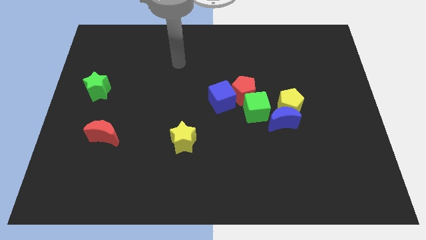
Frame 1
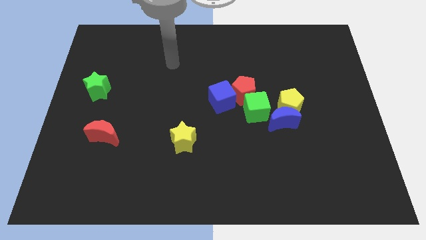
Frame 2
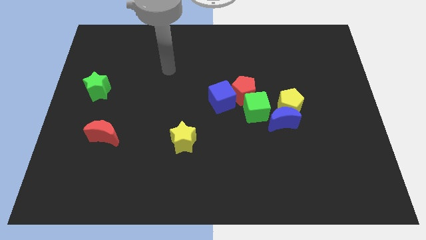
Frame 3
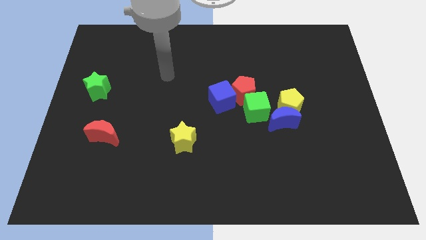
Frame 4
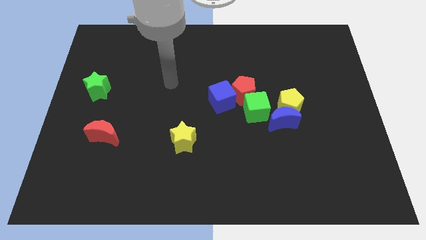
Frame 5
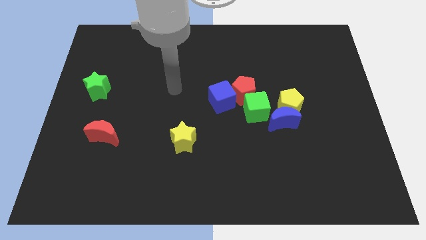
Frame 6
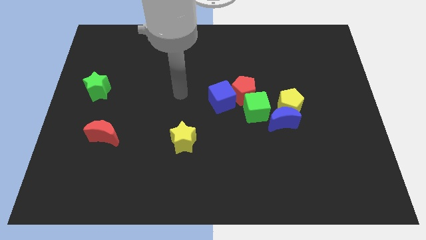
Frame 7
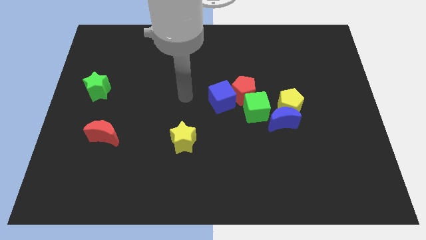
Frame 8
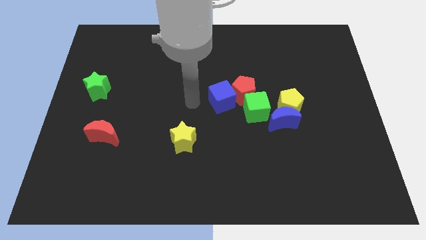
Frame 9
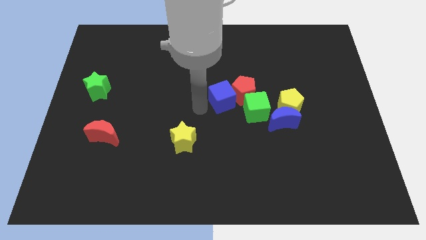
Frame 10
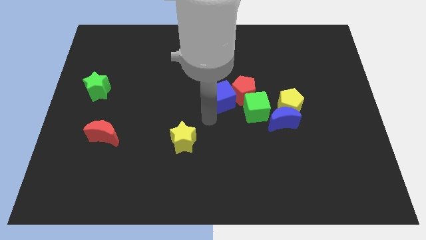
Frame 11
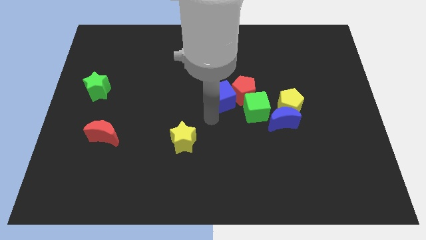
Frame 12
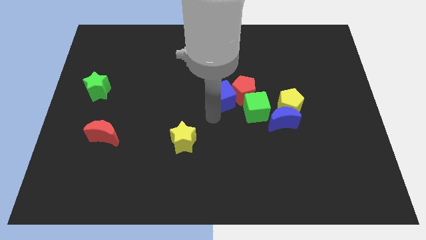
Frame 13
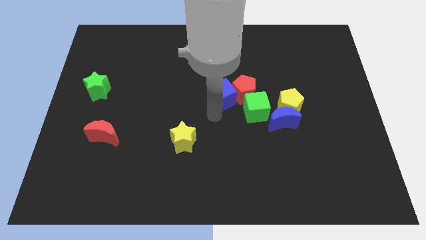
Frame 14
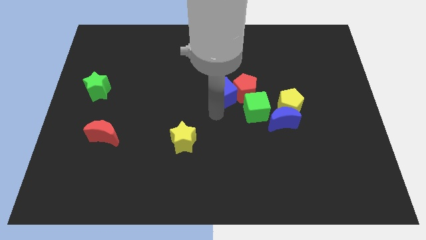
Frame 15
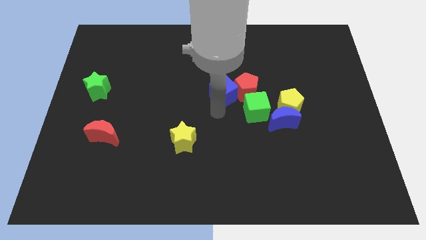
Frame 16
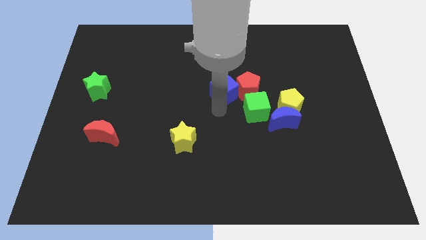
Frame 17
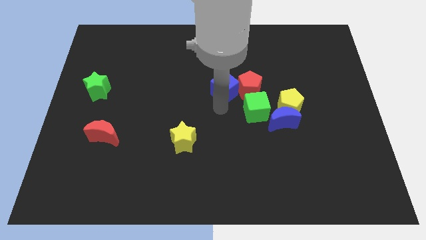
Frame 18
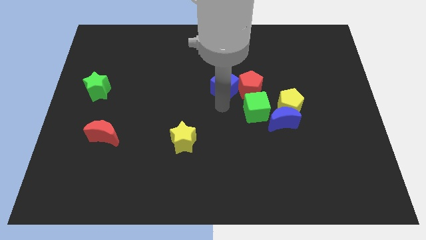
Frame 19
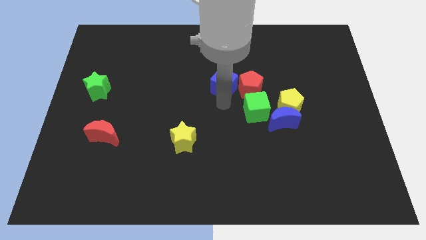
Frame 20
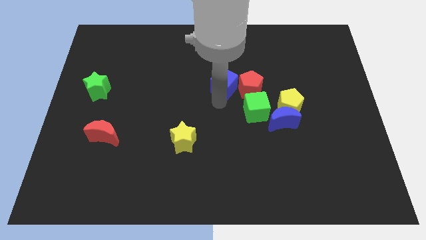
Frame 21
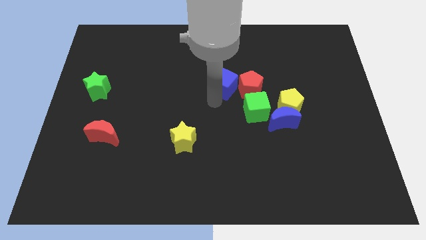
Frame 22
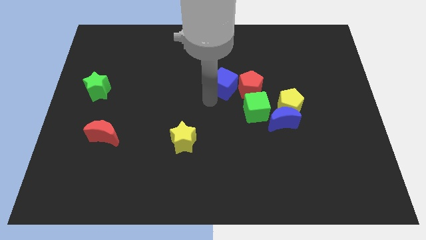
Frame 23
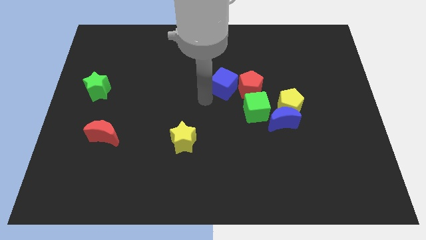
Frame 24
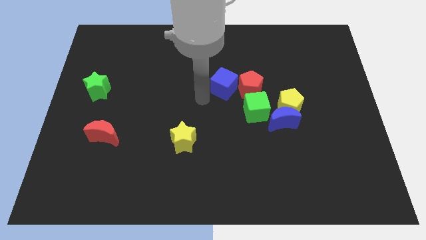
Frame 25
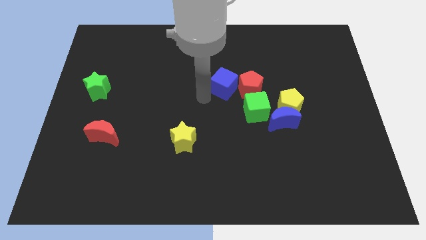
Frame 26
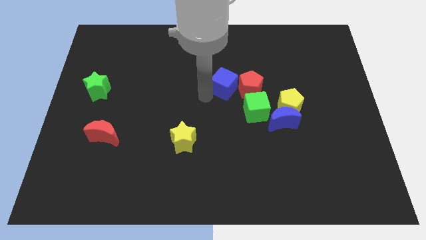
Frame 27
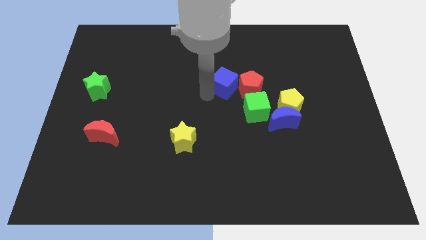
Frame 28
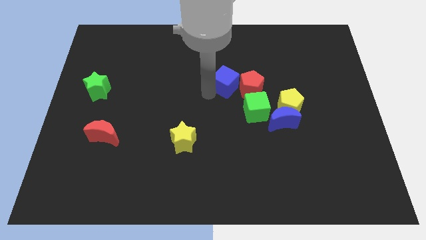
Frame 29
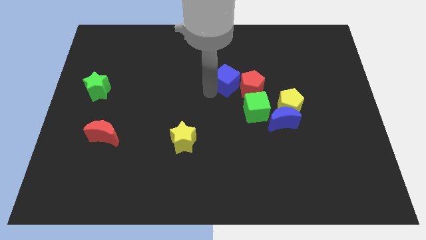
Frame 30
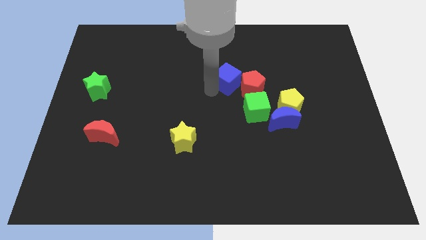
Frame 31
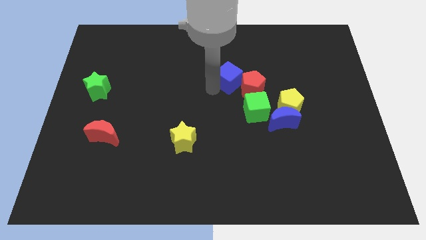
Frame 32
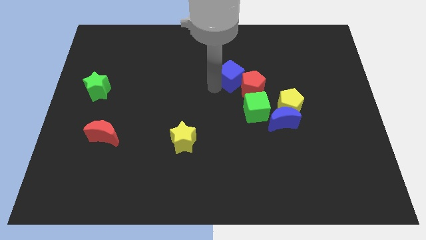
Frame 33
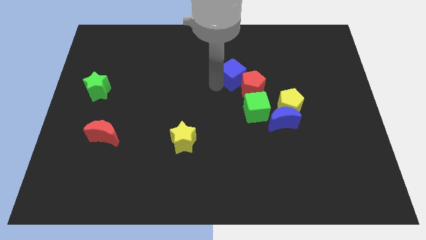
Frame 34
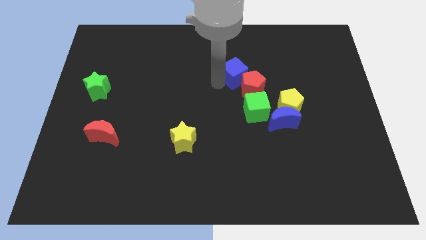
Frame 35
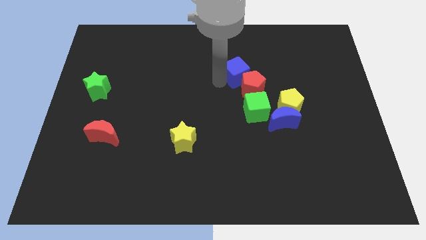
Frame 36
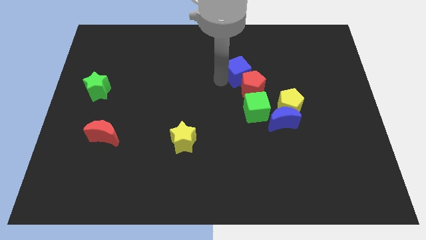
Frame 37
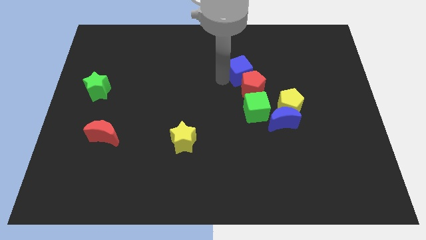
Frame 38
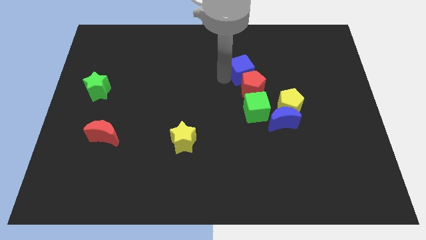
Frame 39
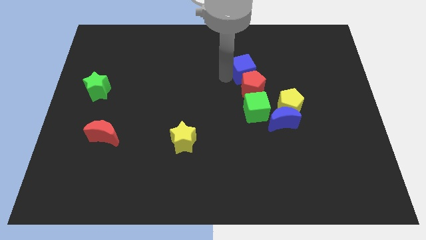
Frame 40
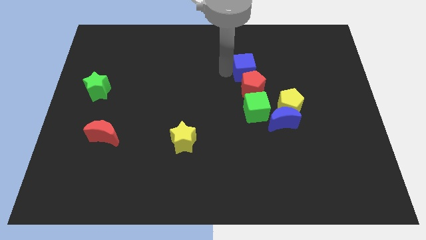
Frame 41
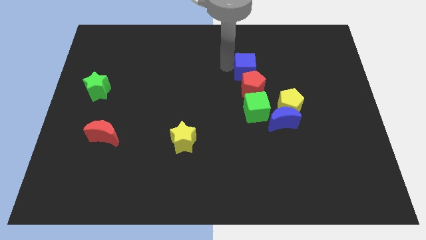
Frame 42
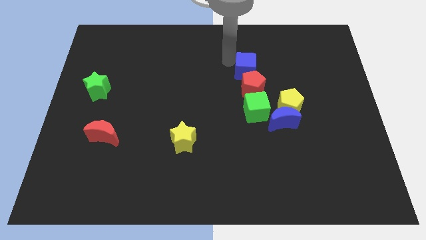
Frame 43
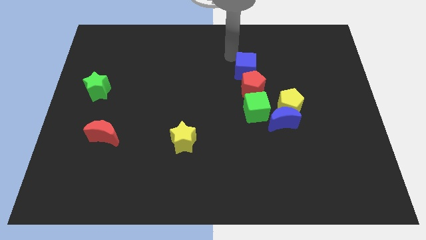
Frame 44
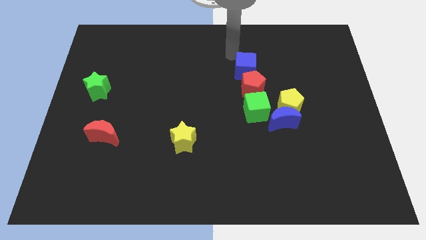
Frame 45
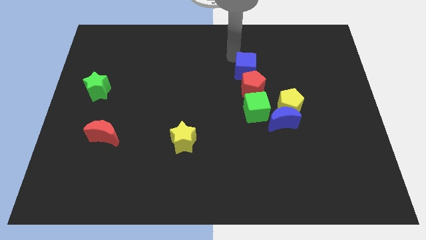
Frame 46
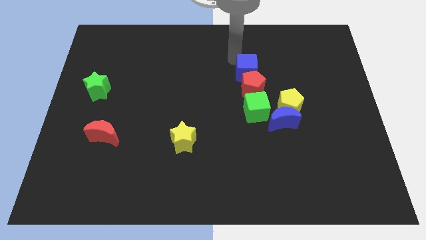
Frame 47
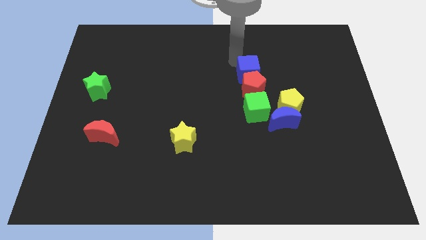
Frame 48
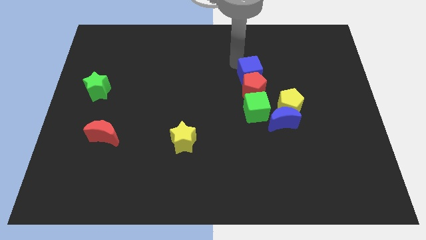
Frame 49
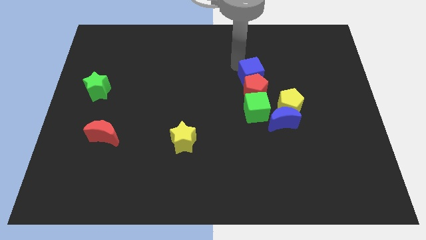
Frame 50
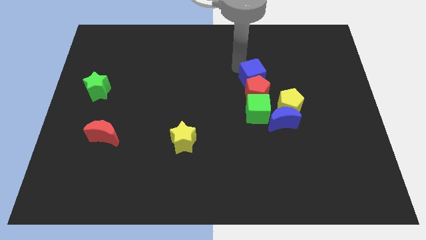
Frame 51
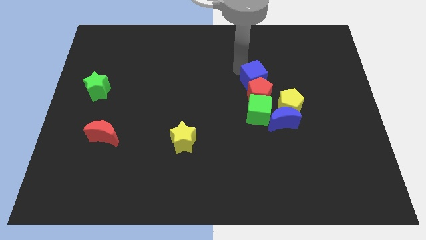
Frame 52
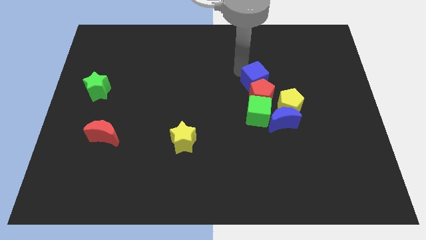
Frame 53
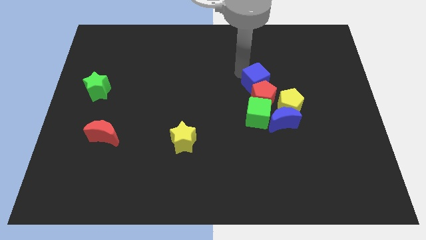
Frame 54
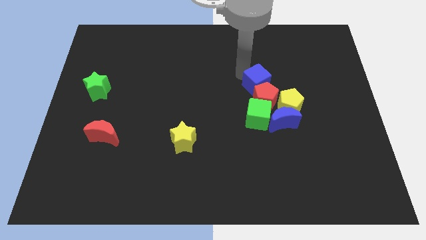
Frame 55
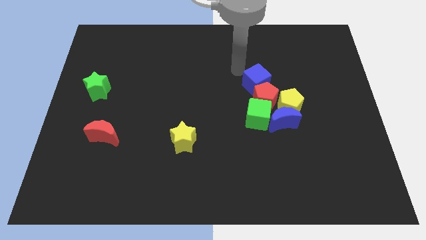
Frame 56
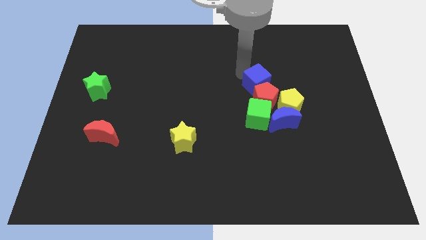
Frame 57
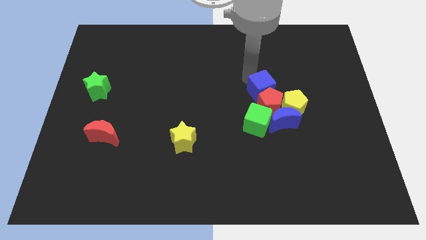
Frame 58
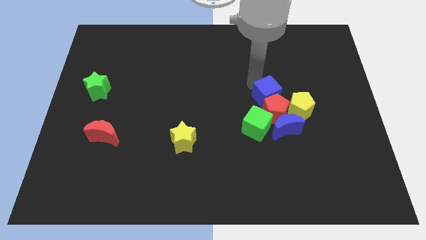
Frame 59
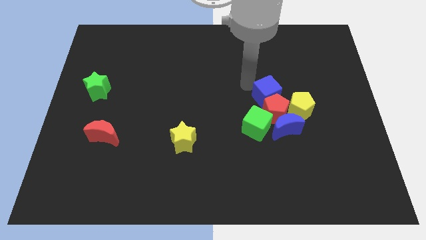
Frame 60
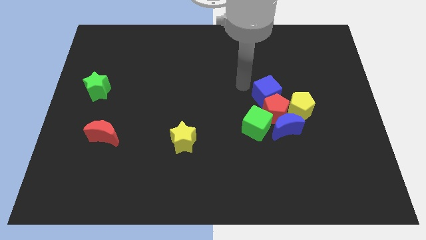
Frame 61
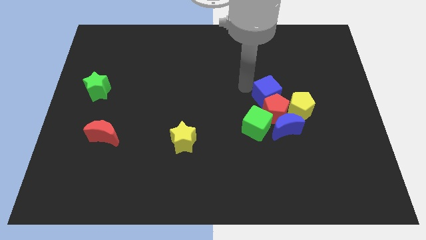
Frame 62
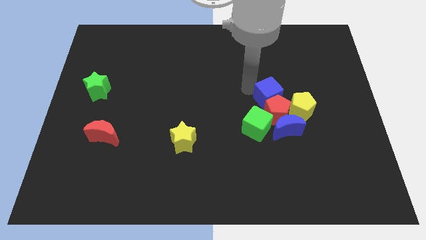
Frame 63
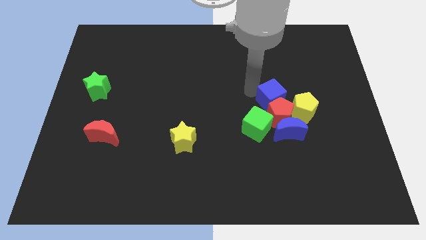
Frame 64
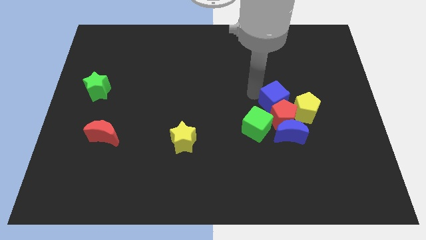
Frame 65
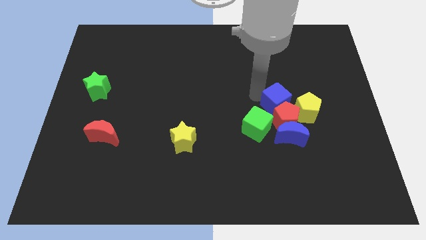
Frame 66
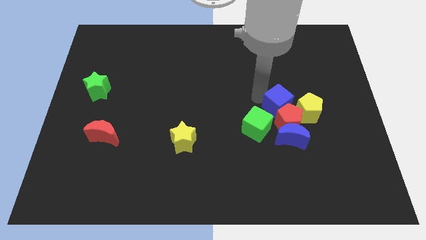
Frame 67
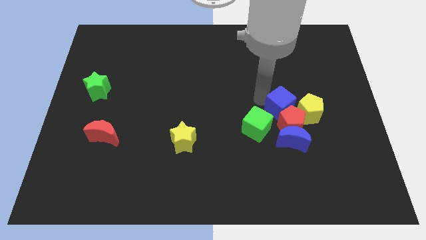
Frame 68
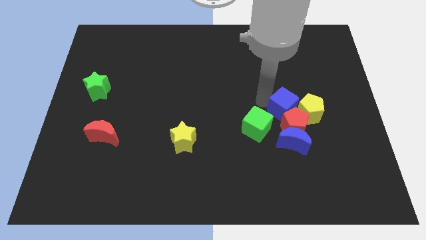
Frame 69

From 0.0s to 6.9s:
put the blue cube to the yellow pentagon
